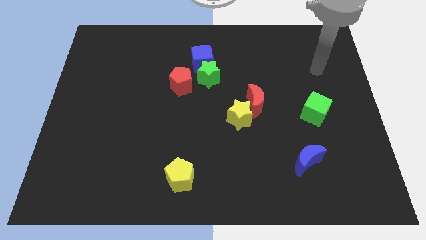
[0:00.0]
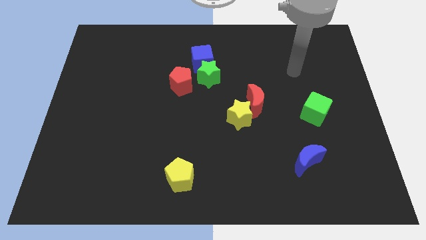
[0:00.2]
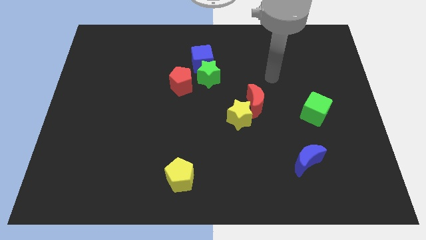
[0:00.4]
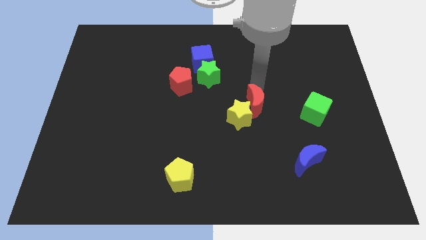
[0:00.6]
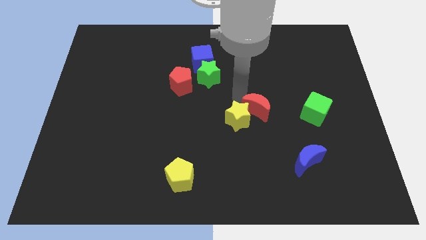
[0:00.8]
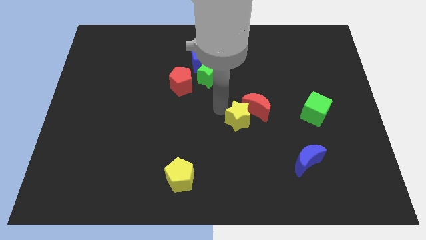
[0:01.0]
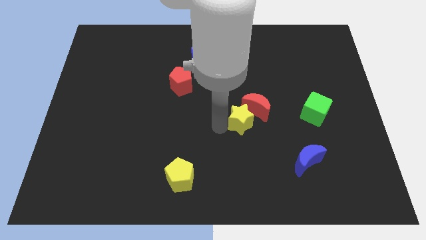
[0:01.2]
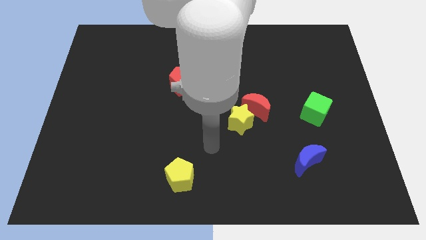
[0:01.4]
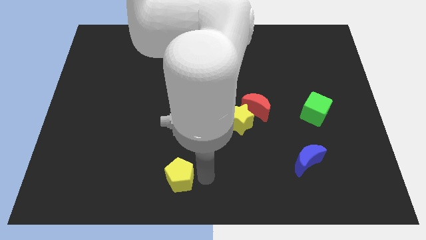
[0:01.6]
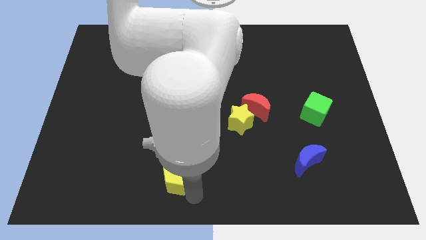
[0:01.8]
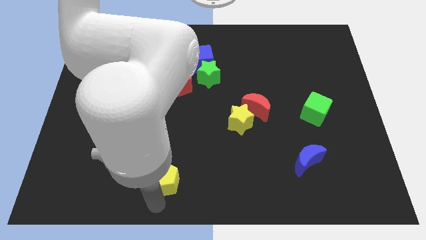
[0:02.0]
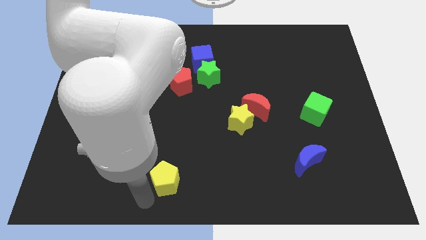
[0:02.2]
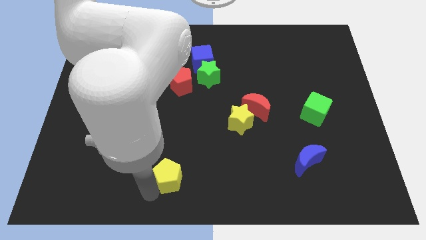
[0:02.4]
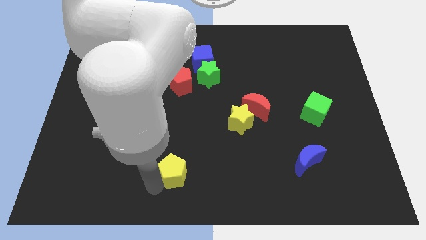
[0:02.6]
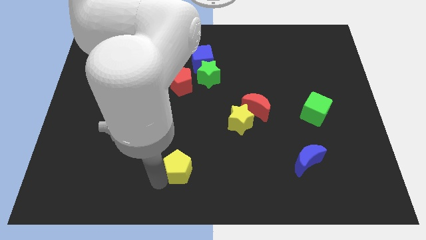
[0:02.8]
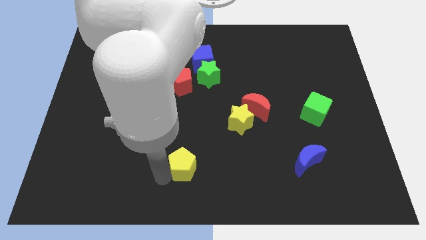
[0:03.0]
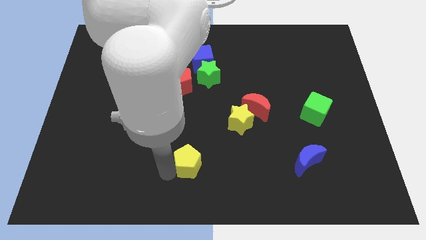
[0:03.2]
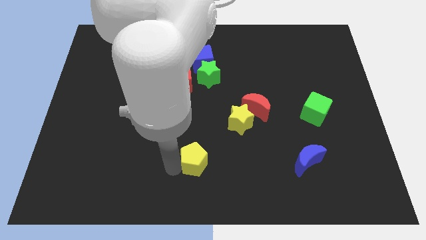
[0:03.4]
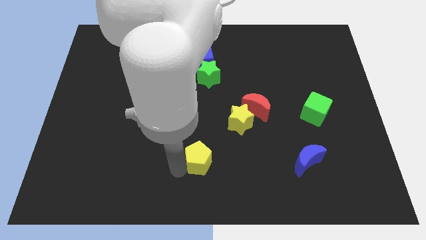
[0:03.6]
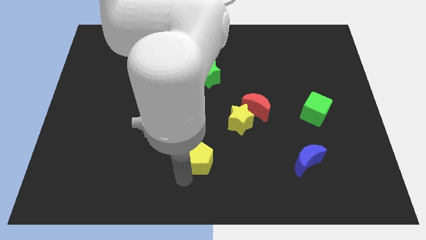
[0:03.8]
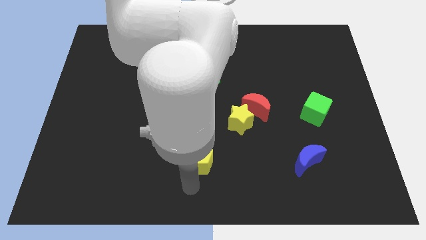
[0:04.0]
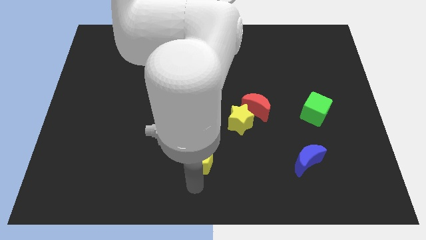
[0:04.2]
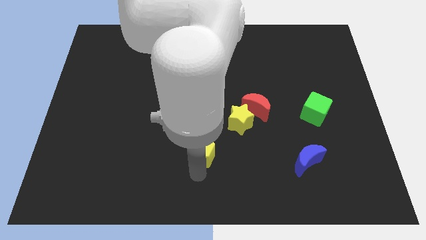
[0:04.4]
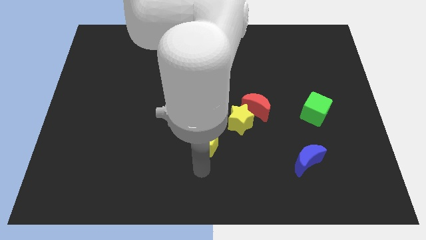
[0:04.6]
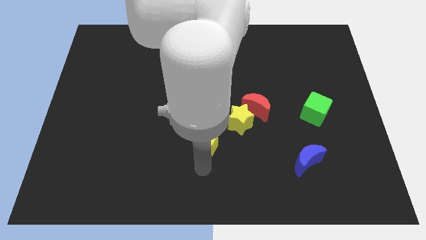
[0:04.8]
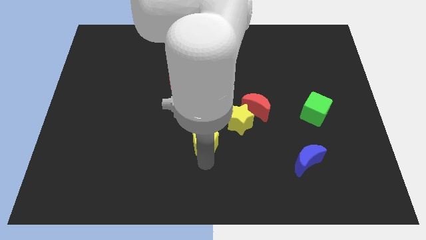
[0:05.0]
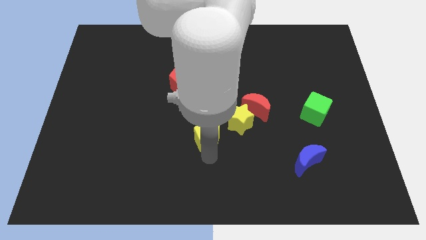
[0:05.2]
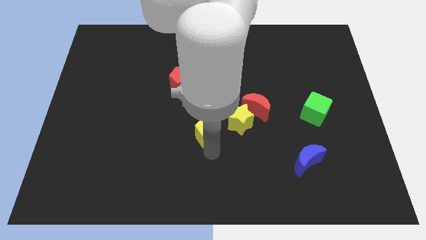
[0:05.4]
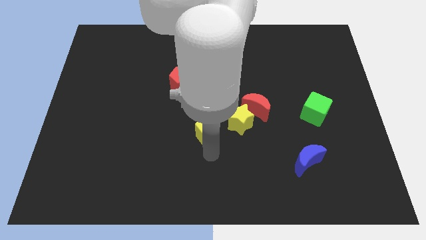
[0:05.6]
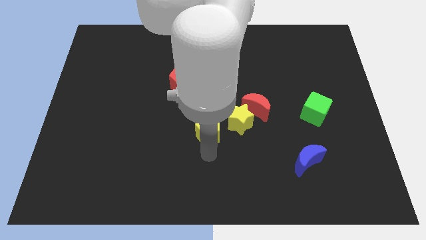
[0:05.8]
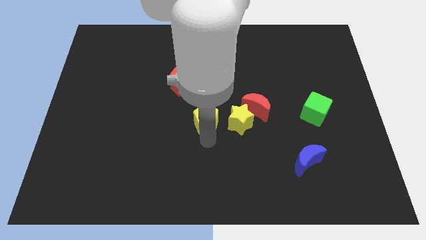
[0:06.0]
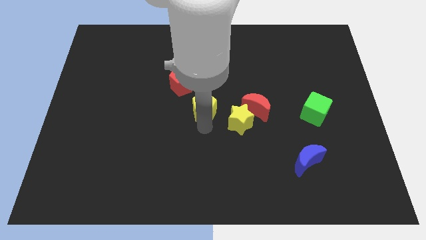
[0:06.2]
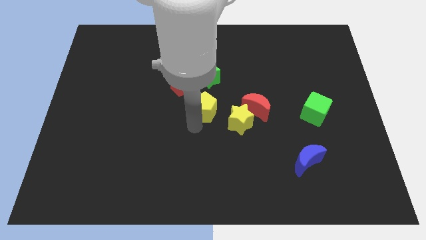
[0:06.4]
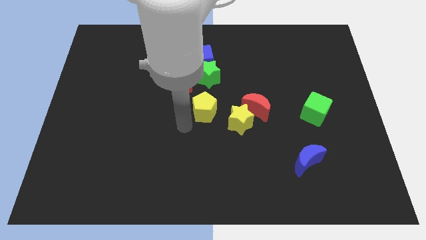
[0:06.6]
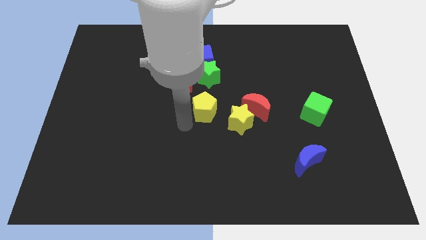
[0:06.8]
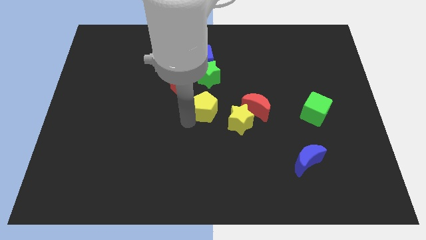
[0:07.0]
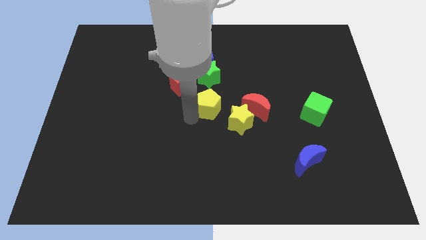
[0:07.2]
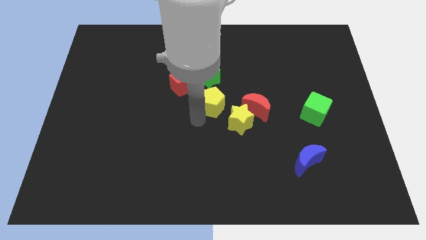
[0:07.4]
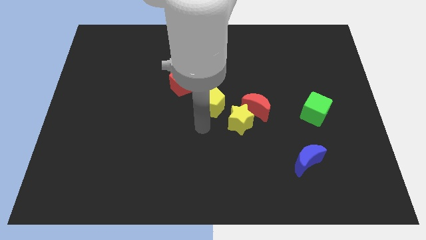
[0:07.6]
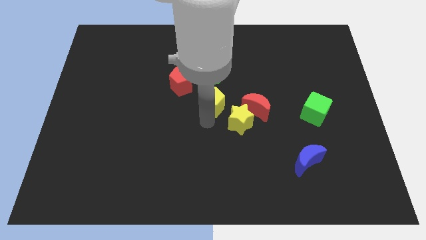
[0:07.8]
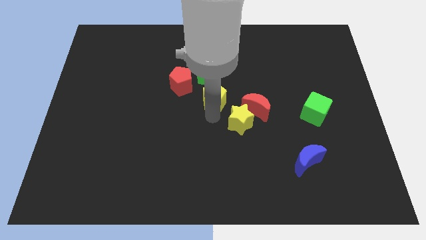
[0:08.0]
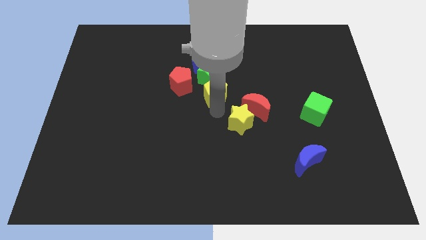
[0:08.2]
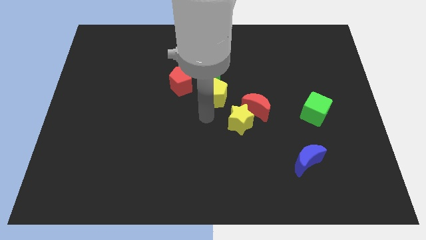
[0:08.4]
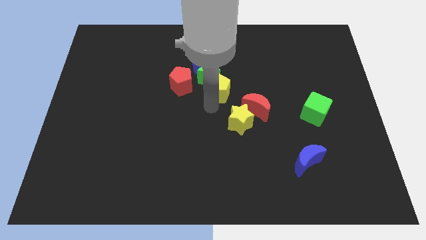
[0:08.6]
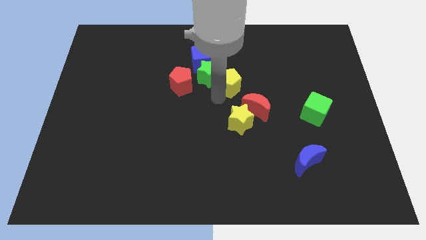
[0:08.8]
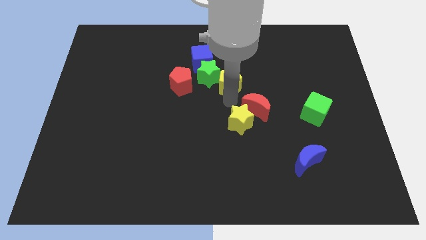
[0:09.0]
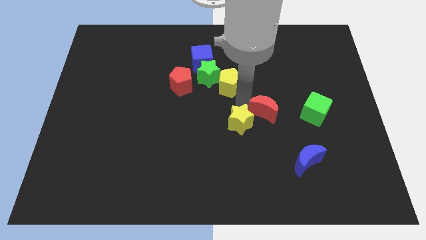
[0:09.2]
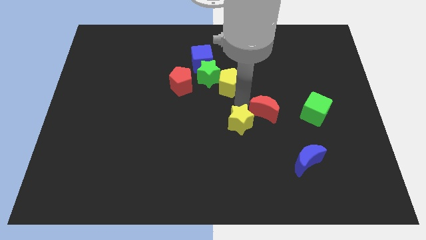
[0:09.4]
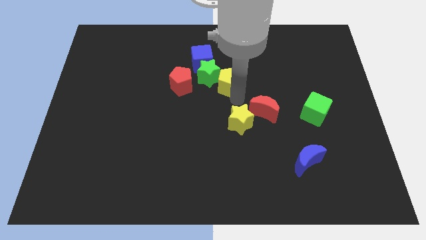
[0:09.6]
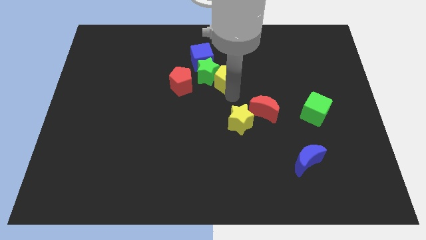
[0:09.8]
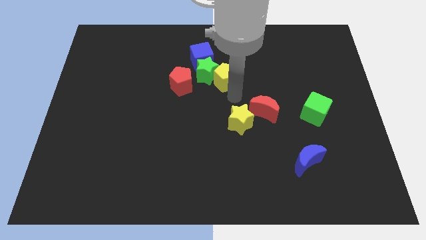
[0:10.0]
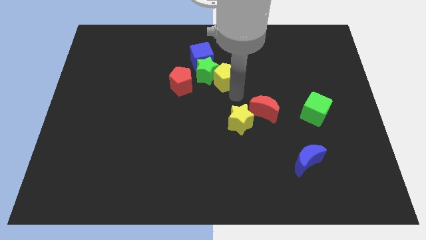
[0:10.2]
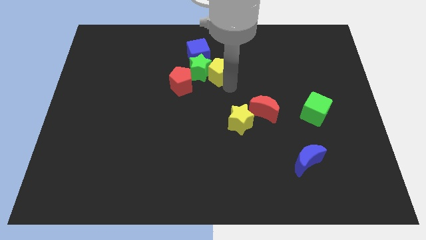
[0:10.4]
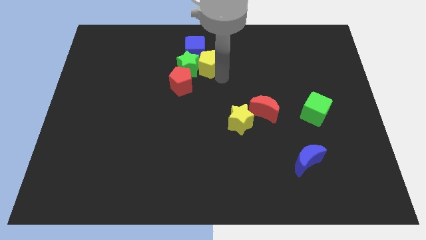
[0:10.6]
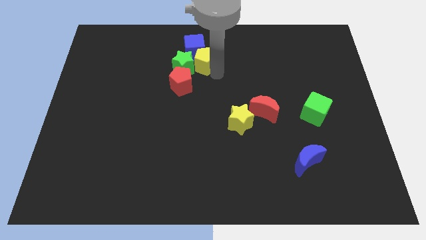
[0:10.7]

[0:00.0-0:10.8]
slide the yellow pentagon close to the blue cube

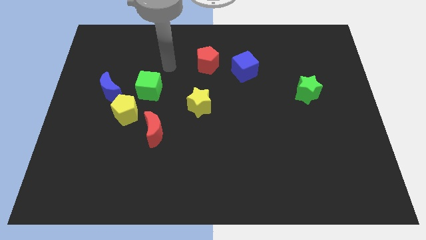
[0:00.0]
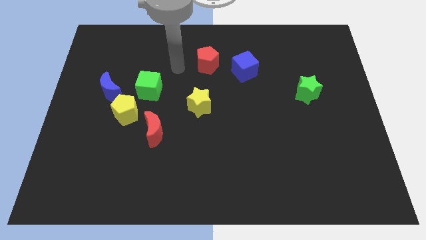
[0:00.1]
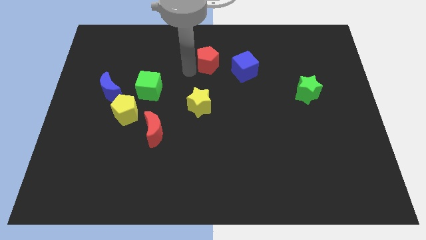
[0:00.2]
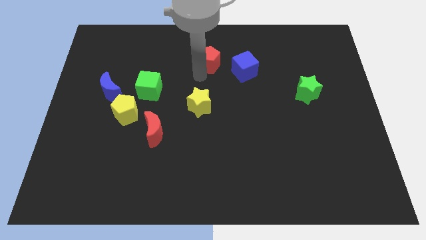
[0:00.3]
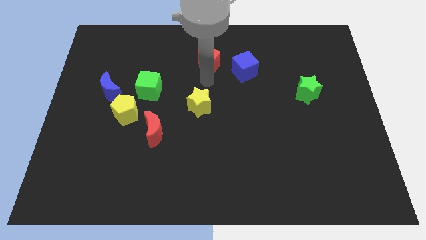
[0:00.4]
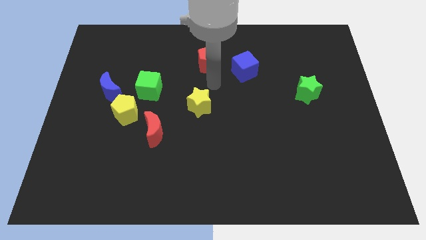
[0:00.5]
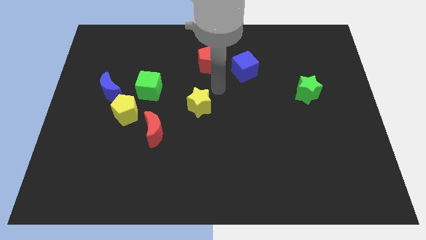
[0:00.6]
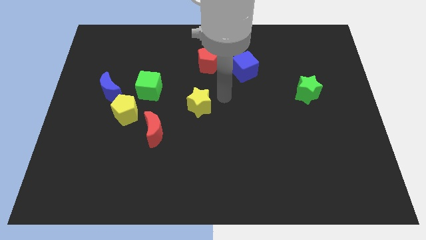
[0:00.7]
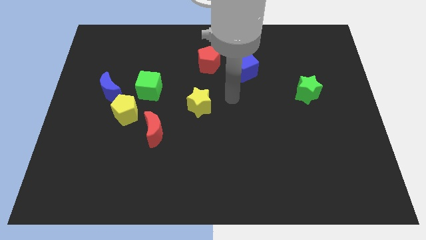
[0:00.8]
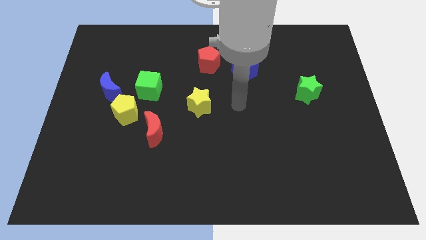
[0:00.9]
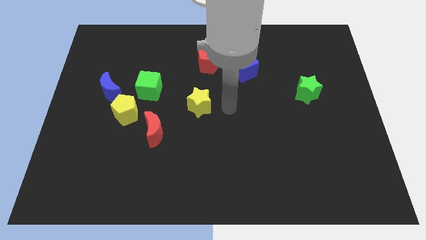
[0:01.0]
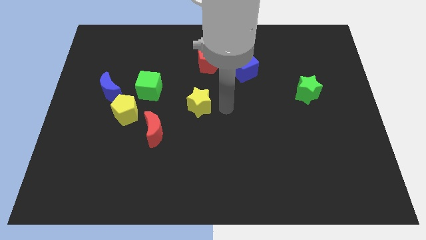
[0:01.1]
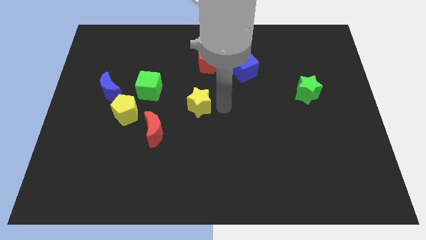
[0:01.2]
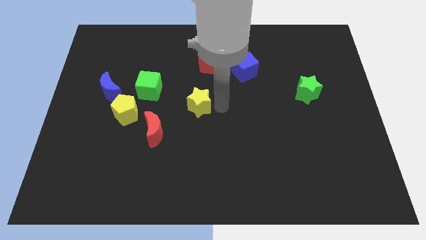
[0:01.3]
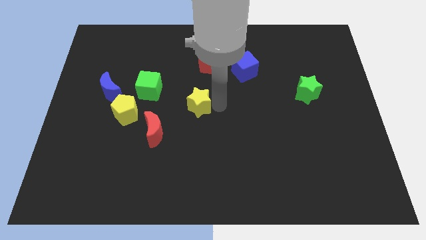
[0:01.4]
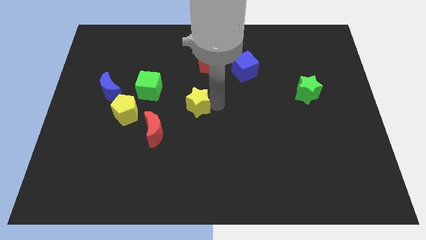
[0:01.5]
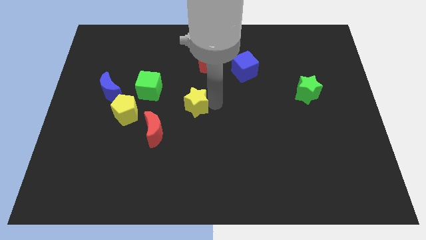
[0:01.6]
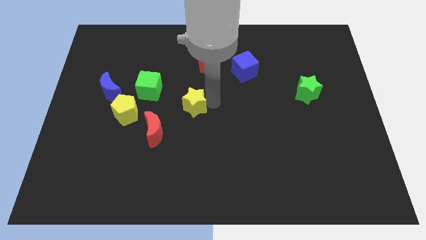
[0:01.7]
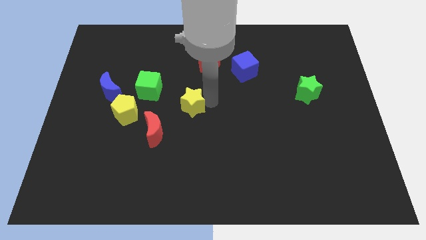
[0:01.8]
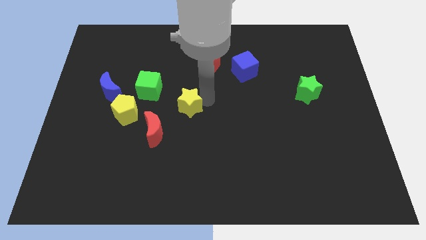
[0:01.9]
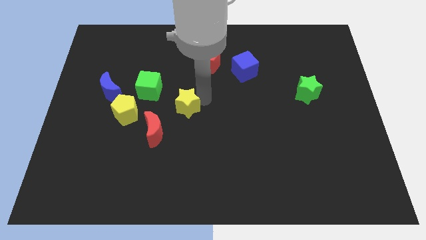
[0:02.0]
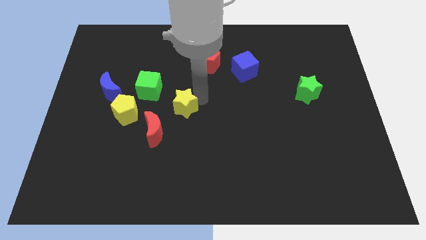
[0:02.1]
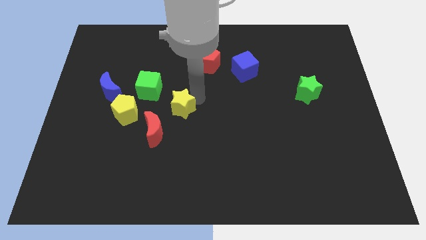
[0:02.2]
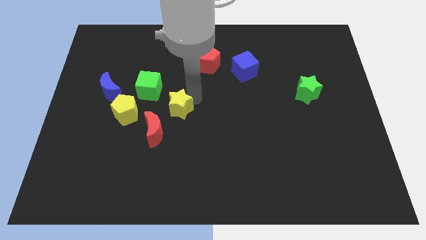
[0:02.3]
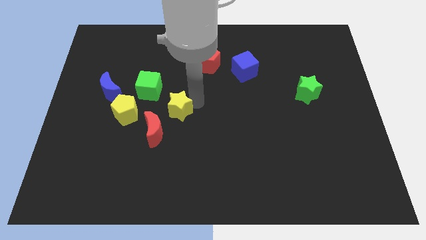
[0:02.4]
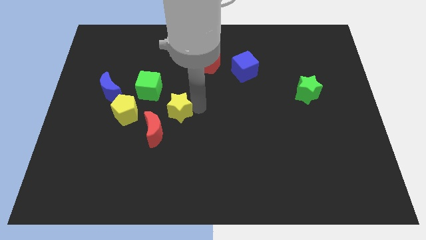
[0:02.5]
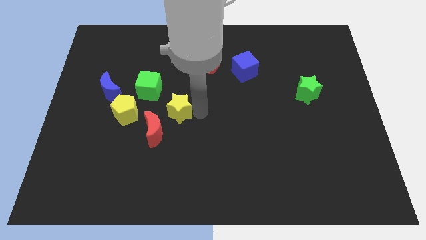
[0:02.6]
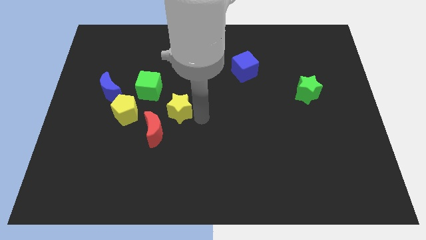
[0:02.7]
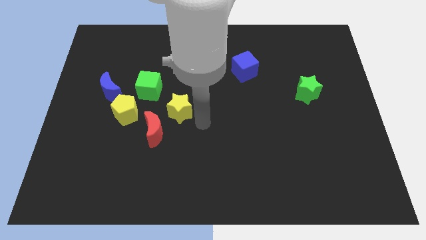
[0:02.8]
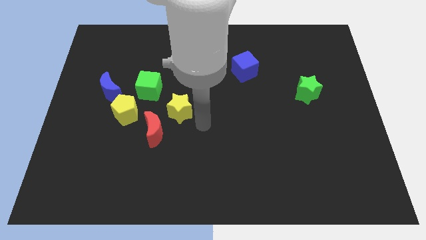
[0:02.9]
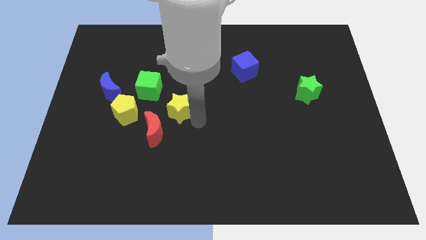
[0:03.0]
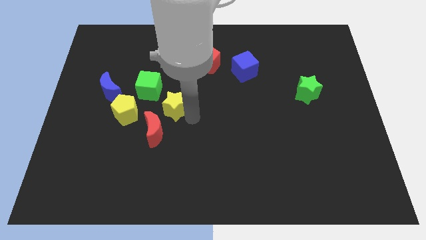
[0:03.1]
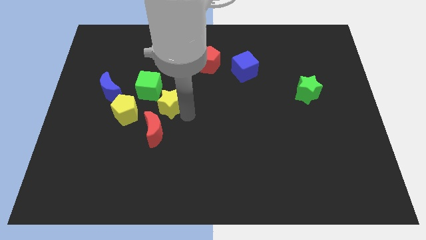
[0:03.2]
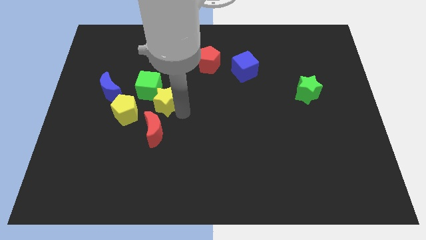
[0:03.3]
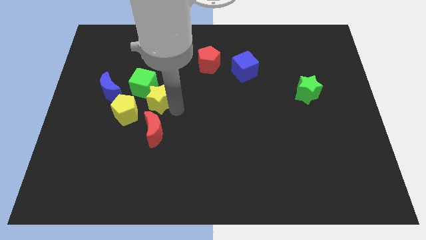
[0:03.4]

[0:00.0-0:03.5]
move the yellow star next to the green cube
